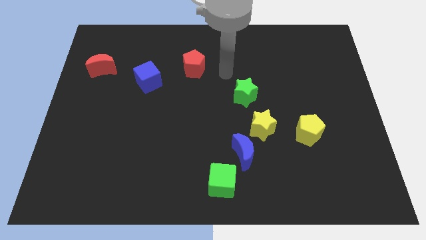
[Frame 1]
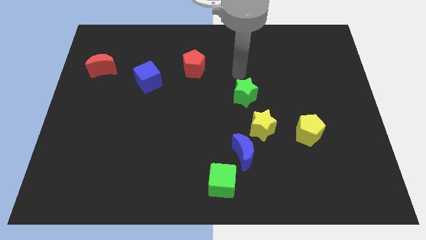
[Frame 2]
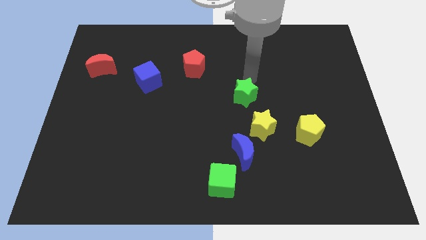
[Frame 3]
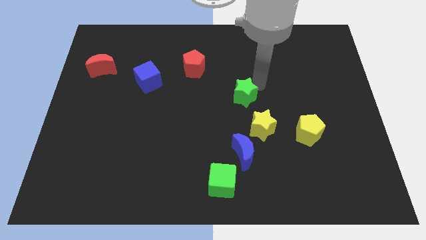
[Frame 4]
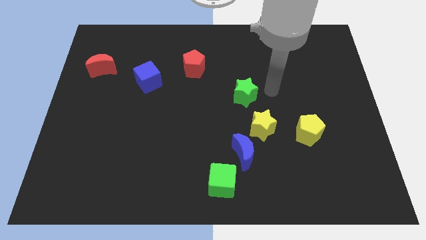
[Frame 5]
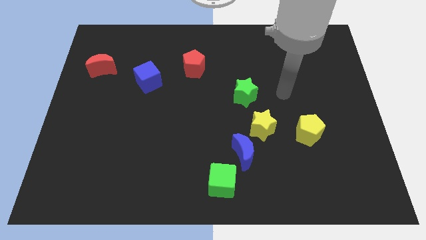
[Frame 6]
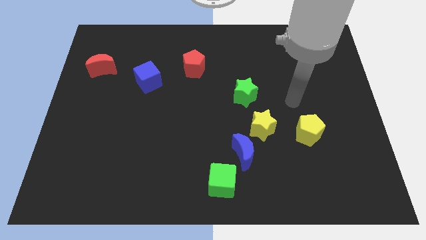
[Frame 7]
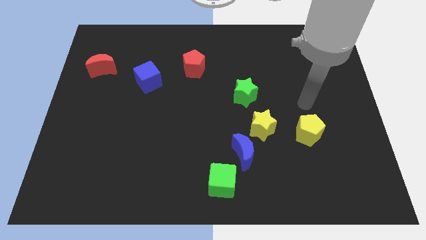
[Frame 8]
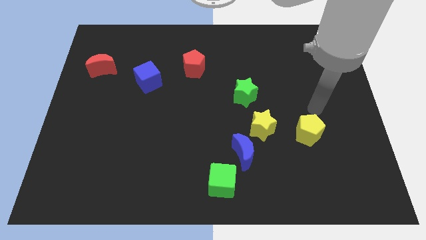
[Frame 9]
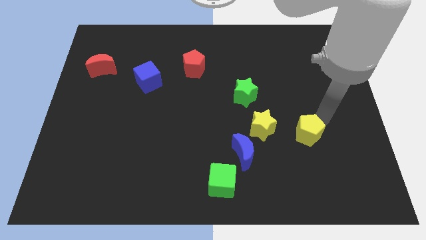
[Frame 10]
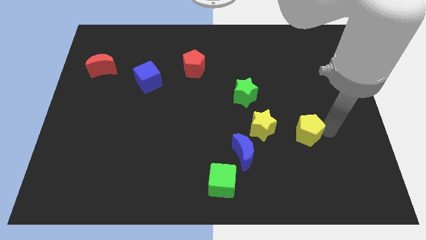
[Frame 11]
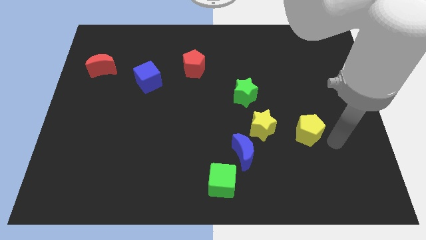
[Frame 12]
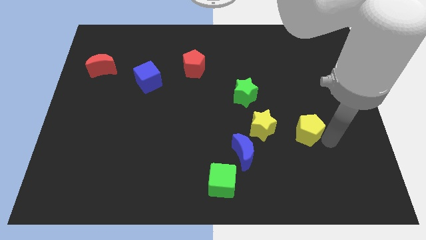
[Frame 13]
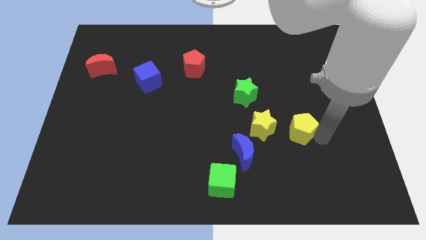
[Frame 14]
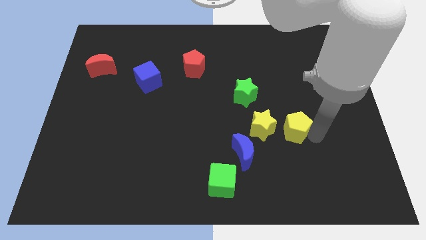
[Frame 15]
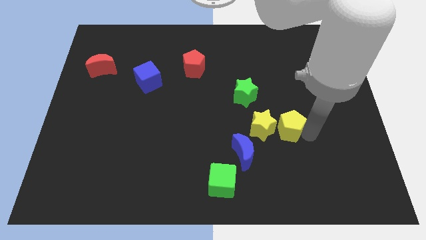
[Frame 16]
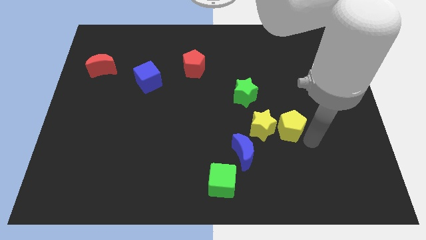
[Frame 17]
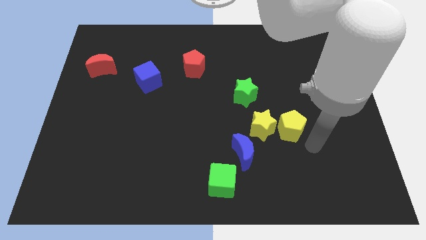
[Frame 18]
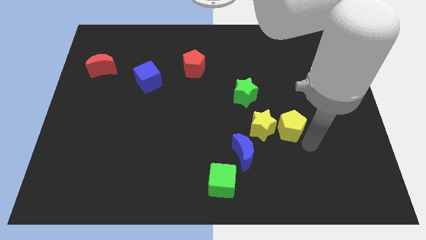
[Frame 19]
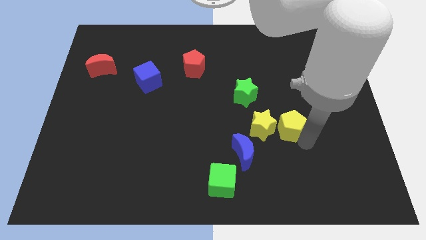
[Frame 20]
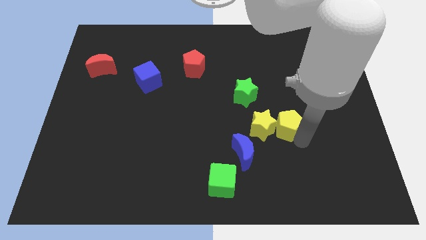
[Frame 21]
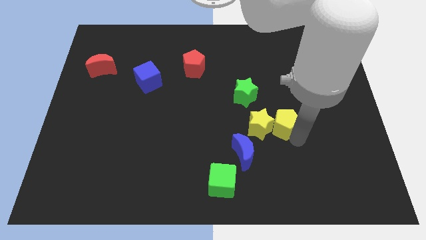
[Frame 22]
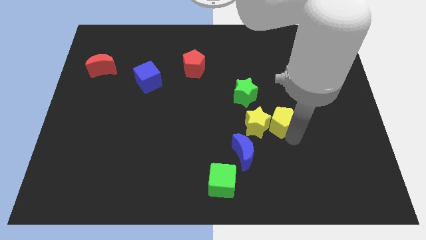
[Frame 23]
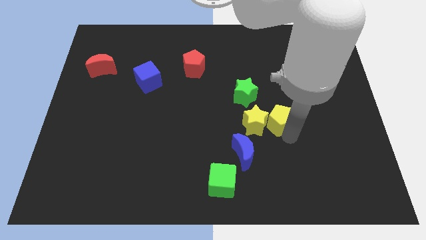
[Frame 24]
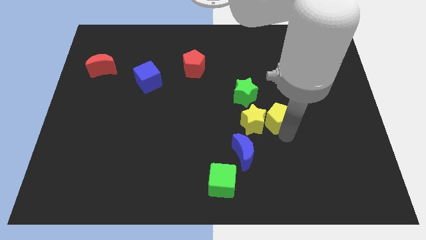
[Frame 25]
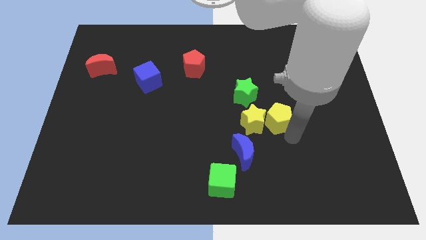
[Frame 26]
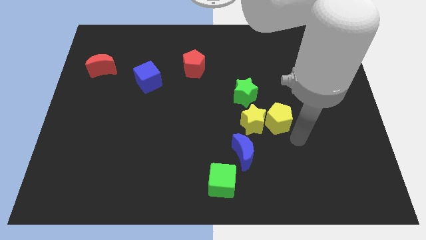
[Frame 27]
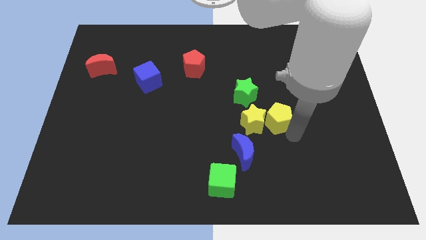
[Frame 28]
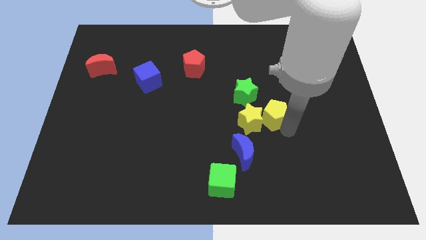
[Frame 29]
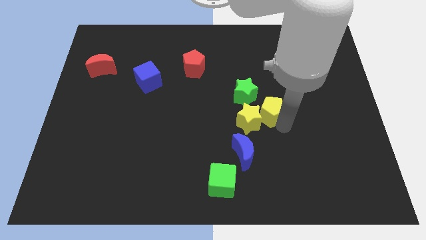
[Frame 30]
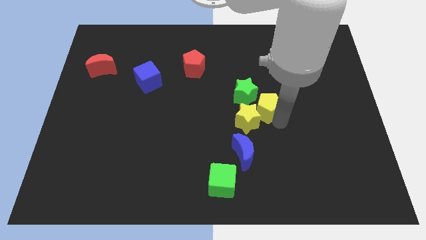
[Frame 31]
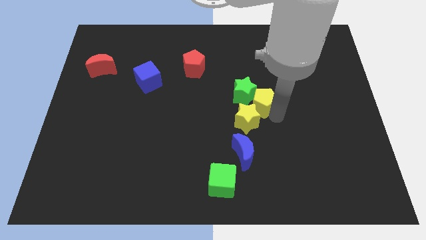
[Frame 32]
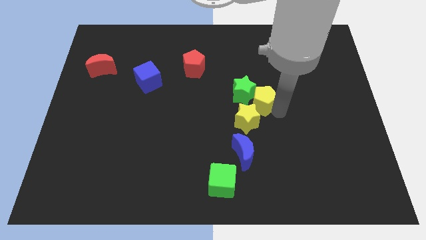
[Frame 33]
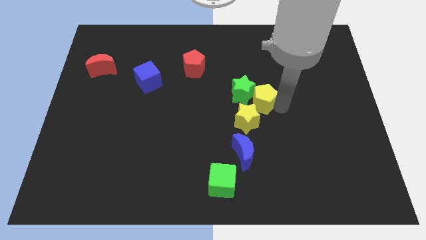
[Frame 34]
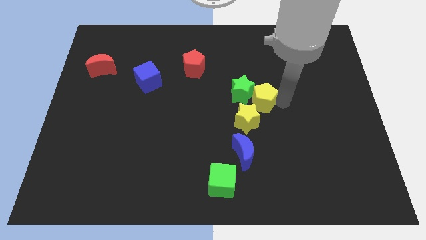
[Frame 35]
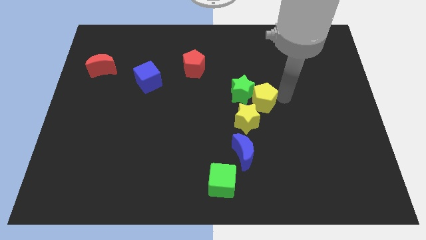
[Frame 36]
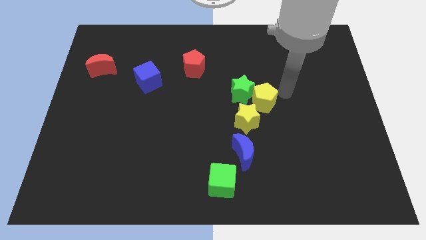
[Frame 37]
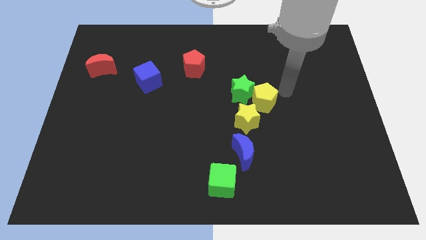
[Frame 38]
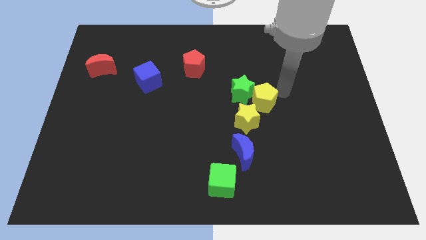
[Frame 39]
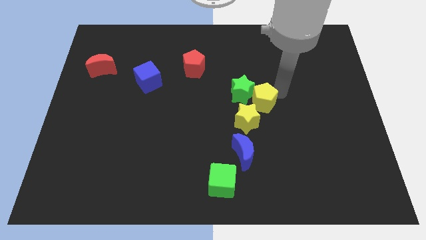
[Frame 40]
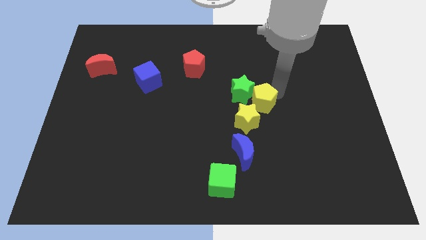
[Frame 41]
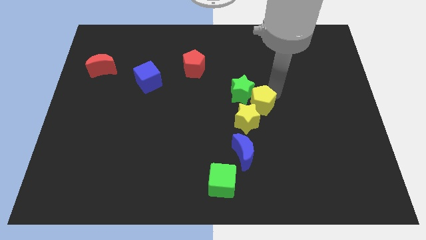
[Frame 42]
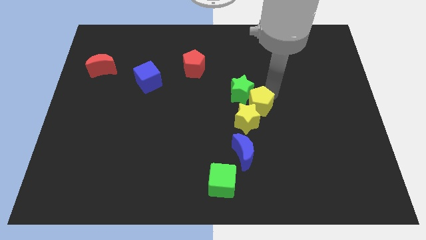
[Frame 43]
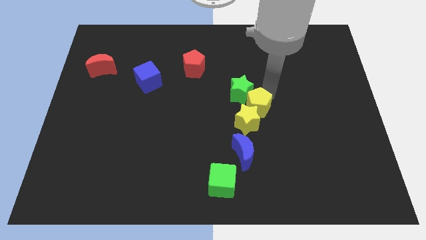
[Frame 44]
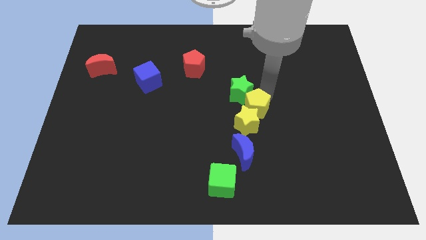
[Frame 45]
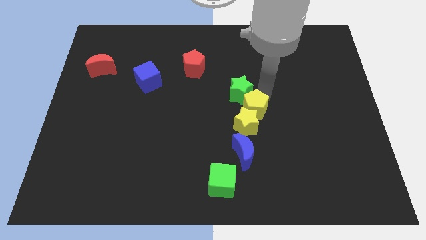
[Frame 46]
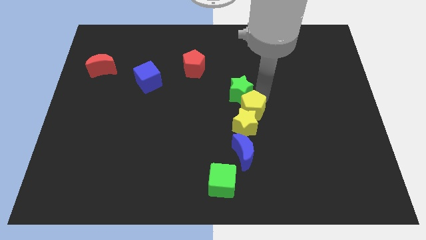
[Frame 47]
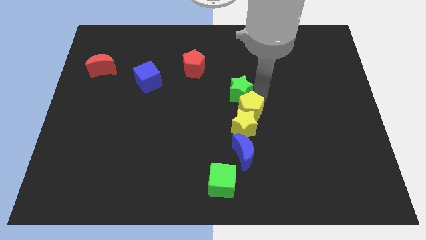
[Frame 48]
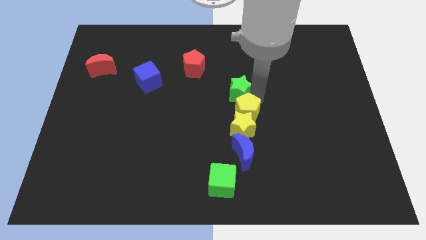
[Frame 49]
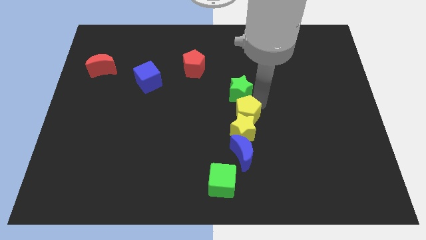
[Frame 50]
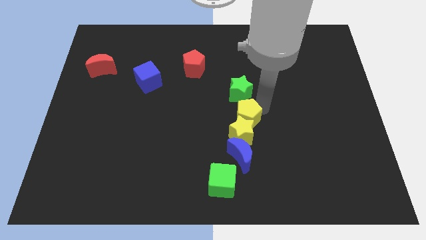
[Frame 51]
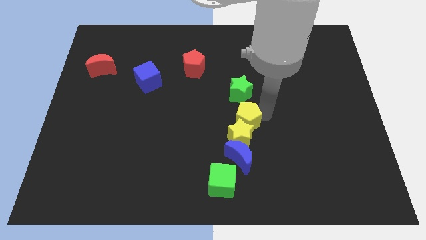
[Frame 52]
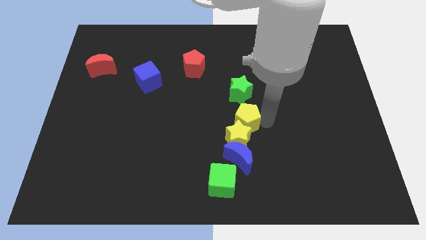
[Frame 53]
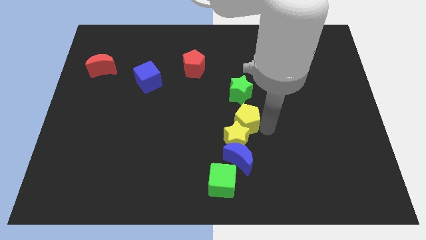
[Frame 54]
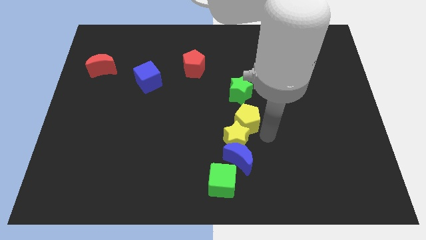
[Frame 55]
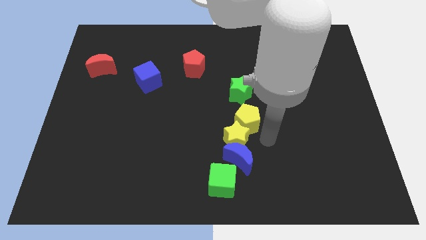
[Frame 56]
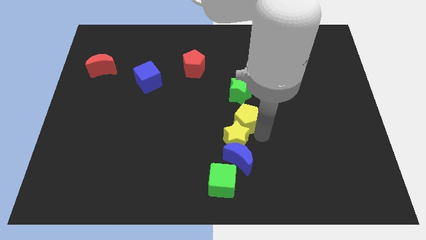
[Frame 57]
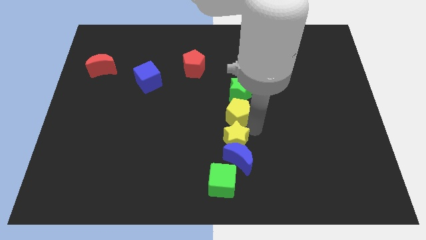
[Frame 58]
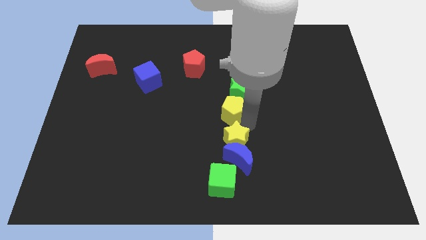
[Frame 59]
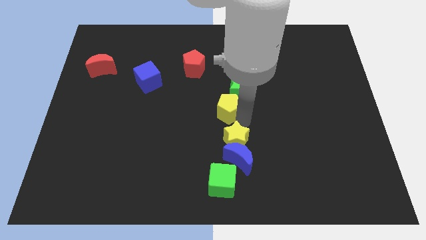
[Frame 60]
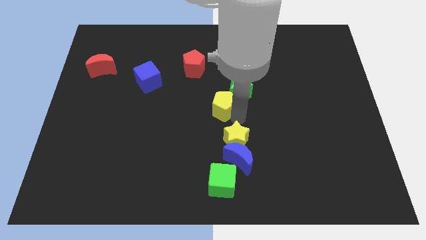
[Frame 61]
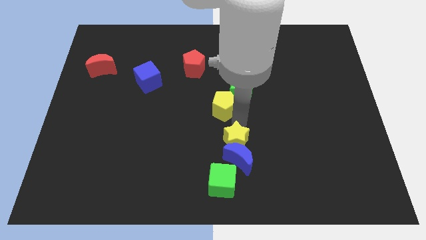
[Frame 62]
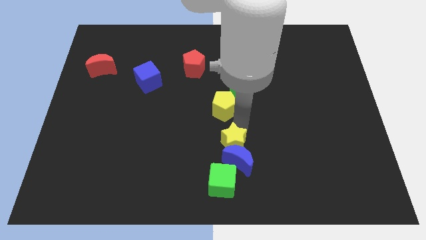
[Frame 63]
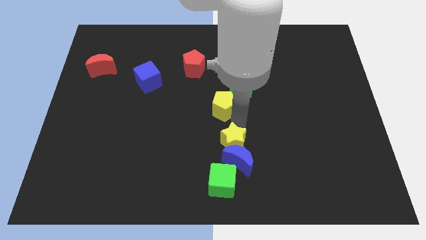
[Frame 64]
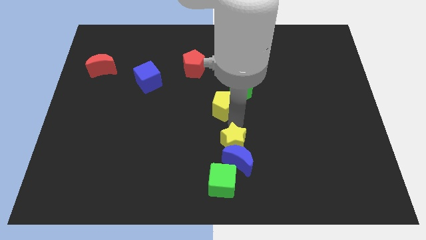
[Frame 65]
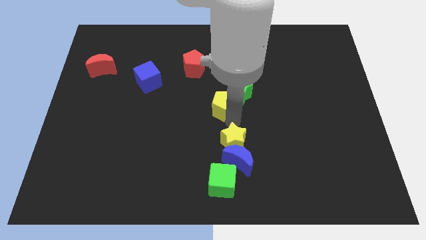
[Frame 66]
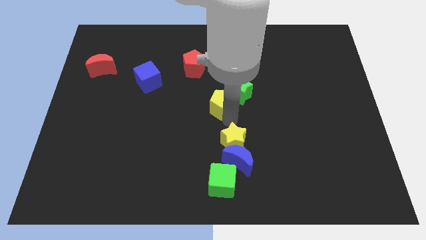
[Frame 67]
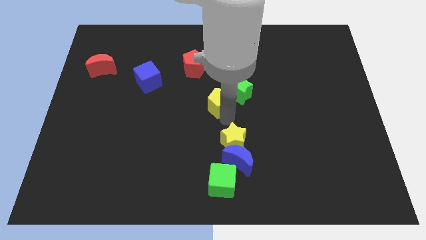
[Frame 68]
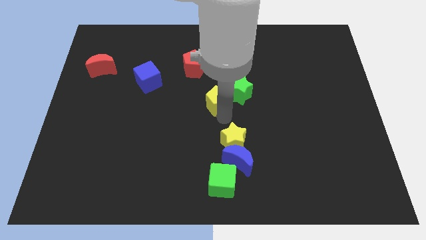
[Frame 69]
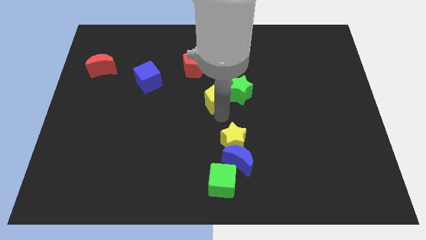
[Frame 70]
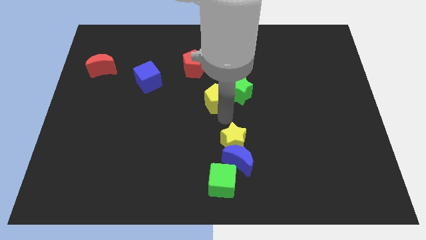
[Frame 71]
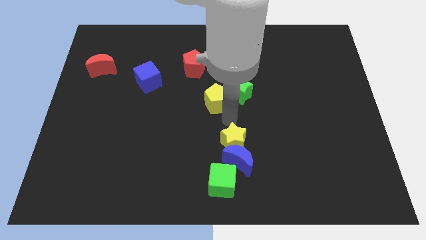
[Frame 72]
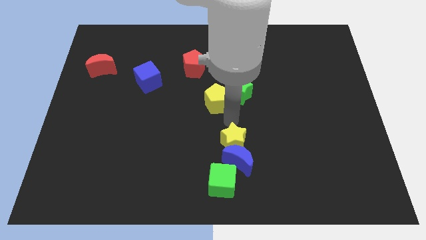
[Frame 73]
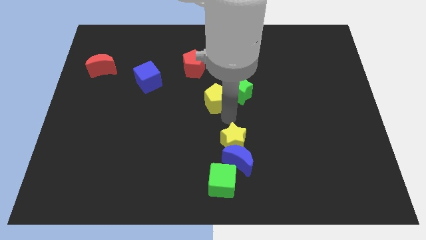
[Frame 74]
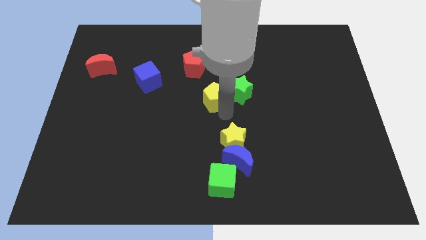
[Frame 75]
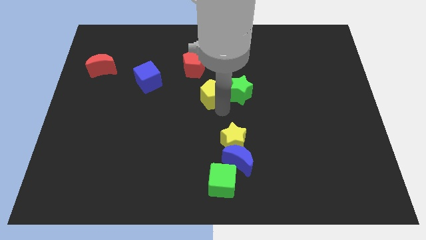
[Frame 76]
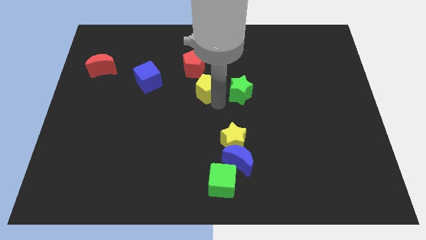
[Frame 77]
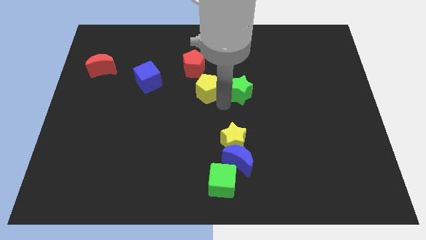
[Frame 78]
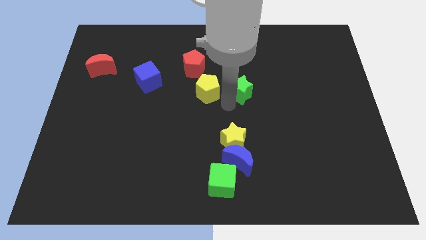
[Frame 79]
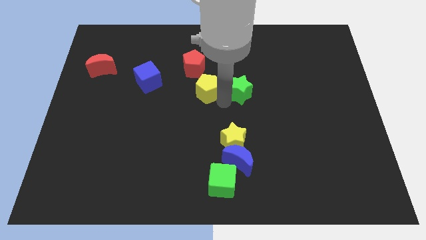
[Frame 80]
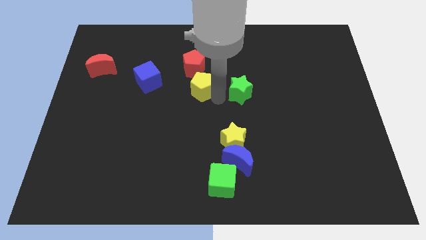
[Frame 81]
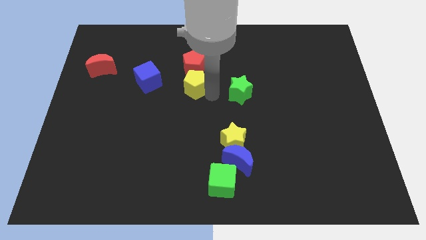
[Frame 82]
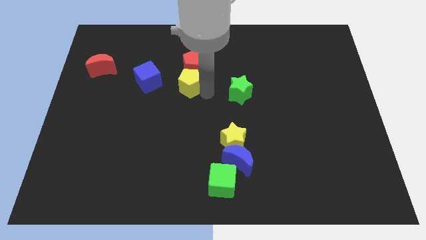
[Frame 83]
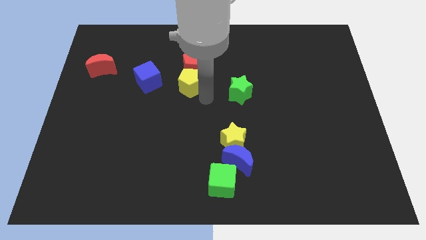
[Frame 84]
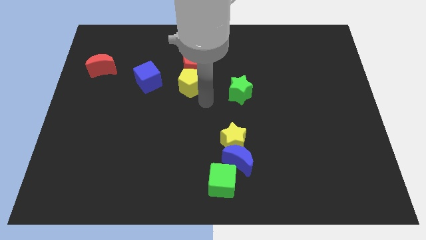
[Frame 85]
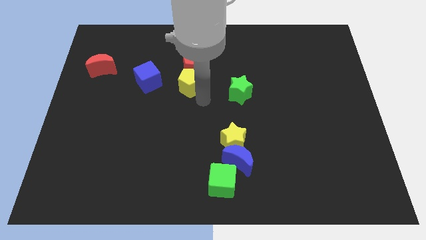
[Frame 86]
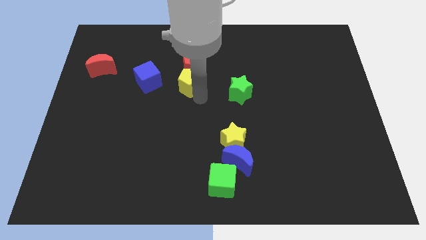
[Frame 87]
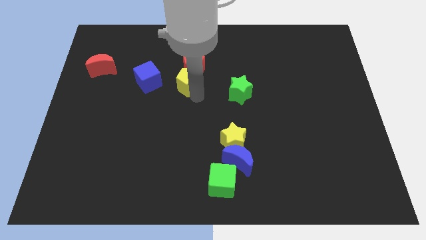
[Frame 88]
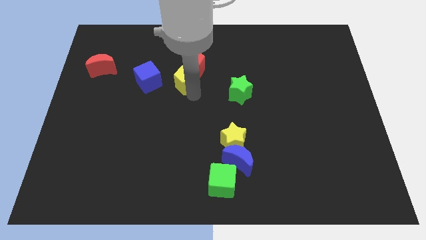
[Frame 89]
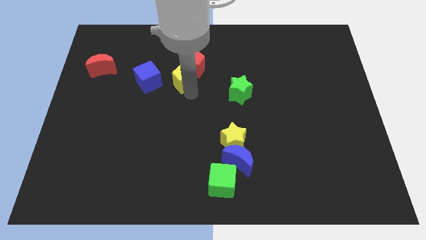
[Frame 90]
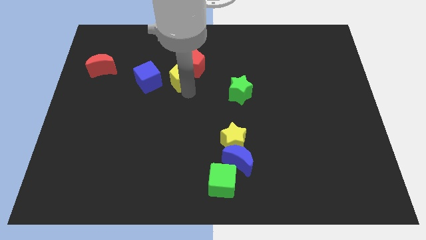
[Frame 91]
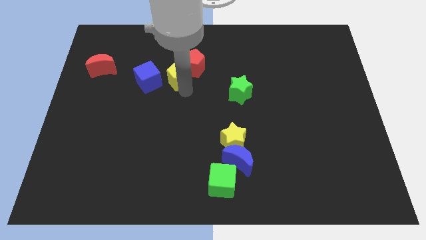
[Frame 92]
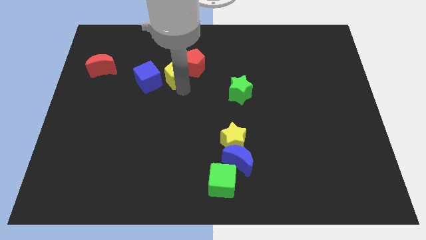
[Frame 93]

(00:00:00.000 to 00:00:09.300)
push the yellow pentagon to the top right side of the blue cube
